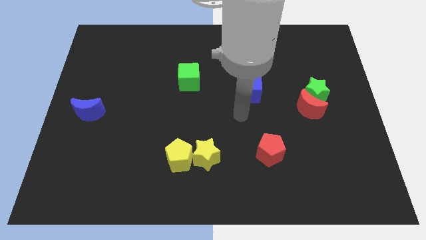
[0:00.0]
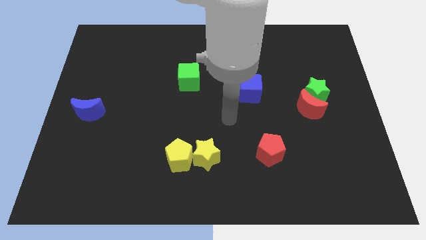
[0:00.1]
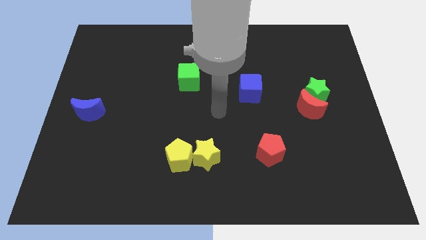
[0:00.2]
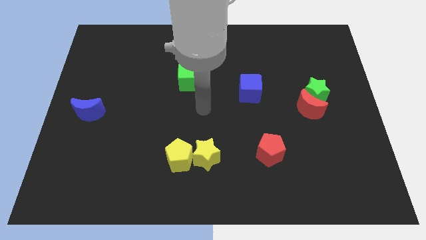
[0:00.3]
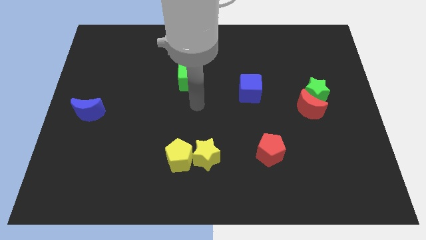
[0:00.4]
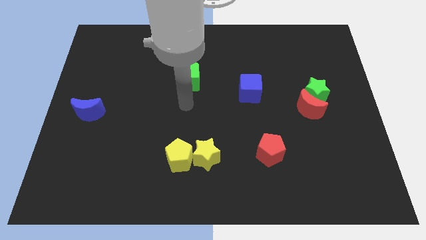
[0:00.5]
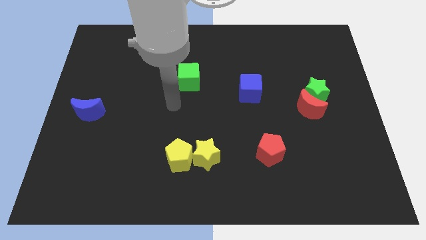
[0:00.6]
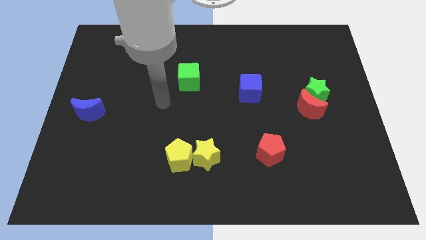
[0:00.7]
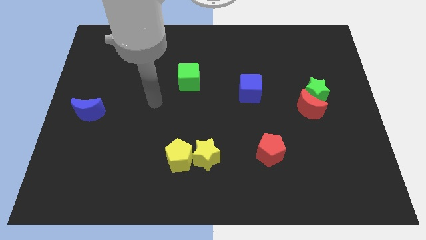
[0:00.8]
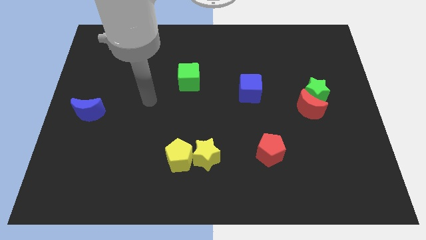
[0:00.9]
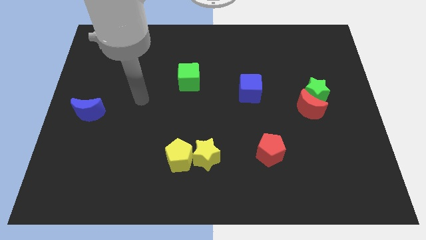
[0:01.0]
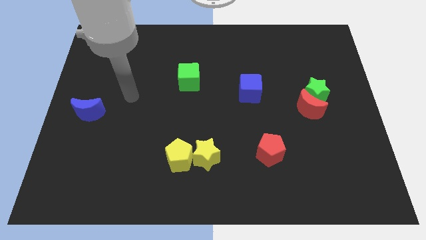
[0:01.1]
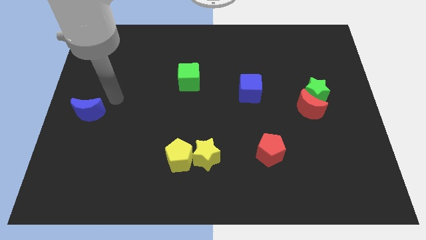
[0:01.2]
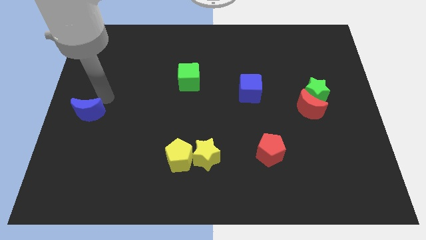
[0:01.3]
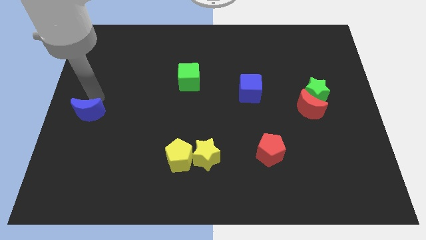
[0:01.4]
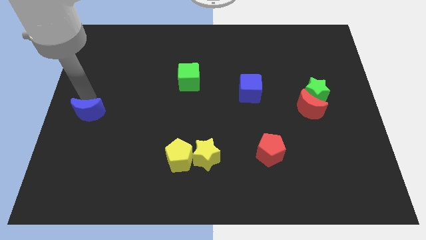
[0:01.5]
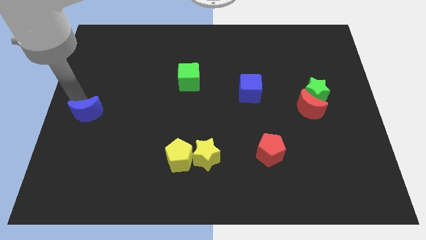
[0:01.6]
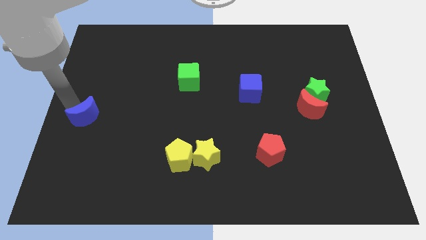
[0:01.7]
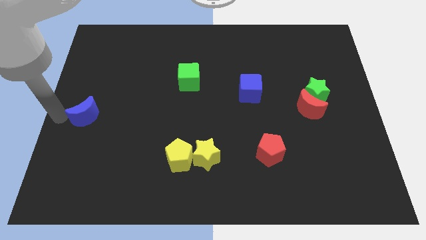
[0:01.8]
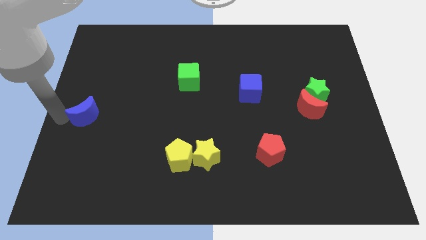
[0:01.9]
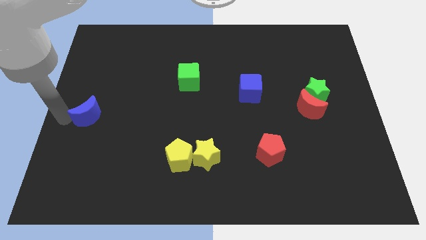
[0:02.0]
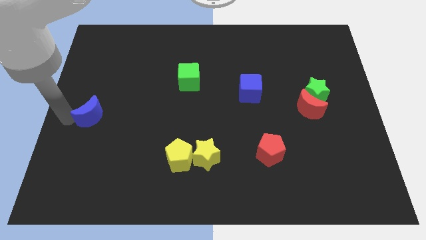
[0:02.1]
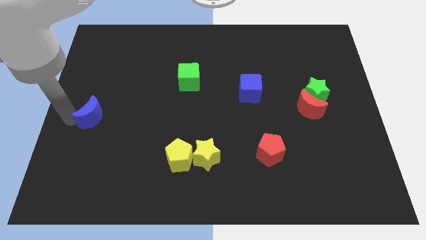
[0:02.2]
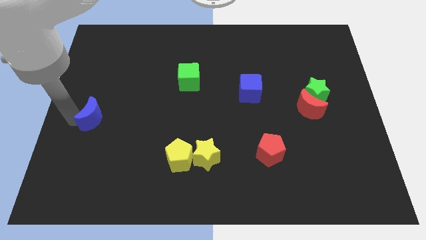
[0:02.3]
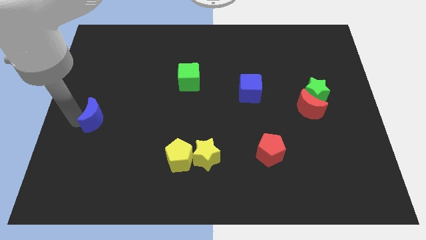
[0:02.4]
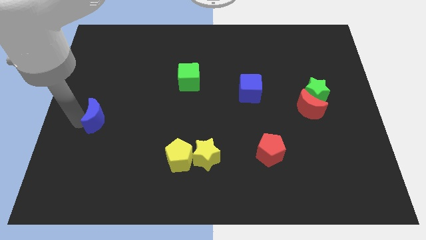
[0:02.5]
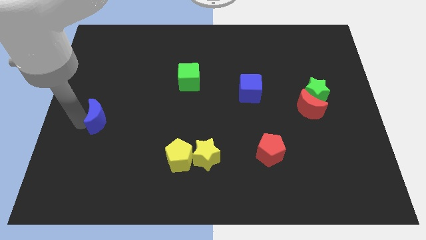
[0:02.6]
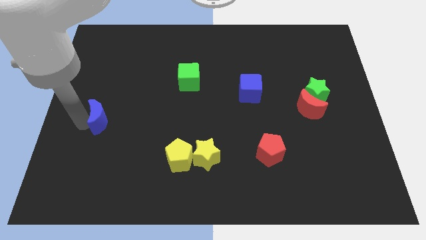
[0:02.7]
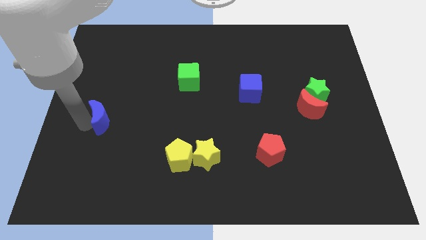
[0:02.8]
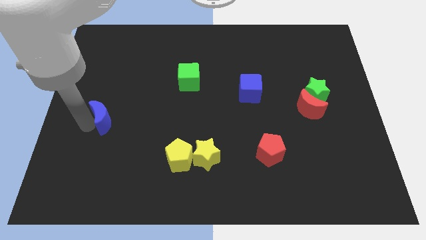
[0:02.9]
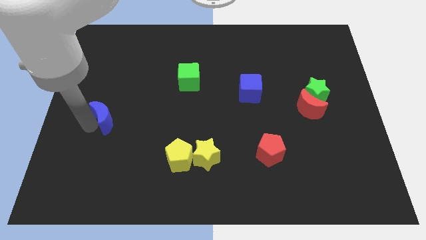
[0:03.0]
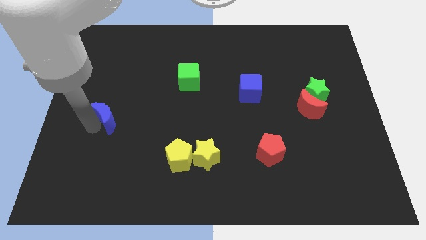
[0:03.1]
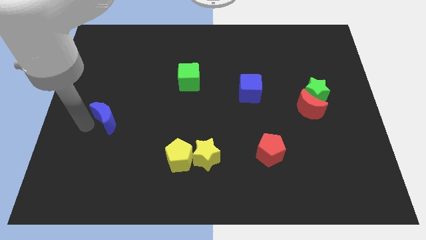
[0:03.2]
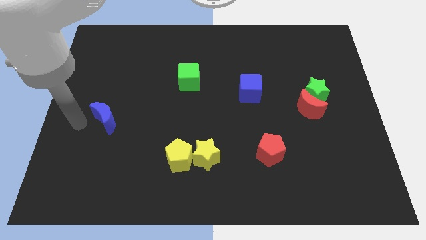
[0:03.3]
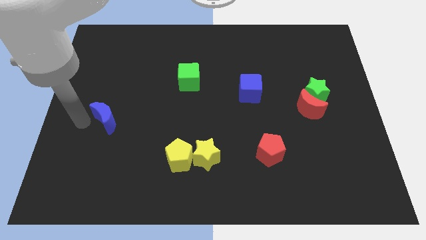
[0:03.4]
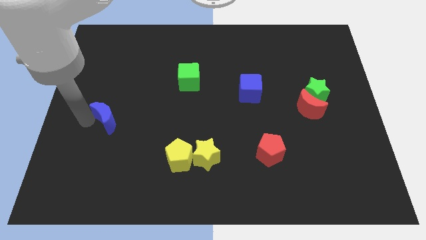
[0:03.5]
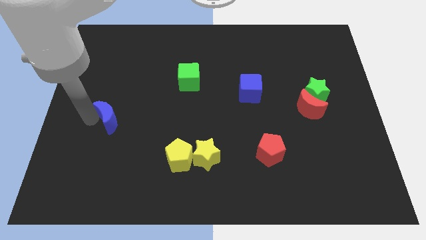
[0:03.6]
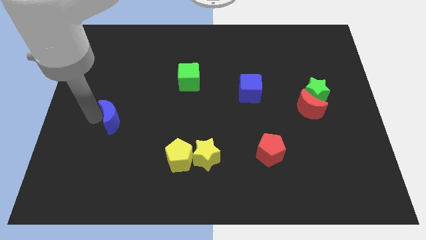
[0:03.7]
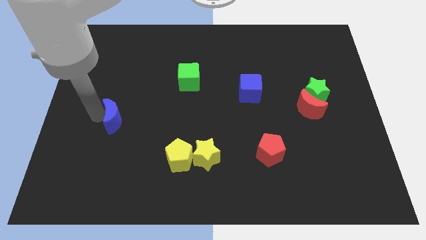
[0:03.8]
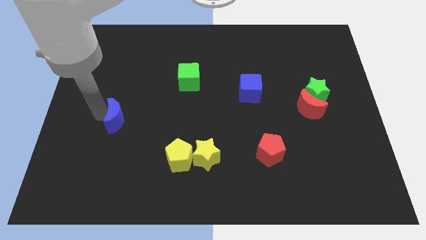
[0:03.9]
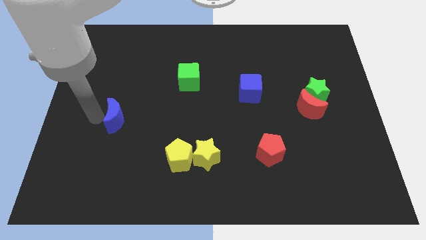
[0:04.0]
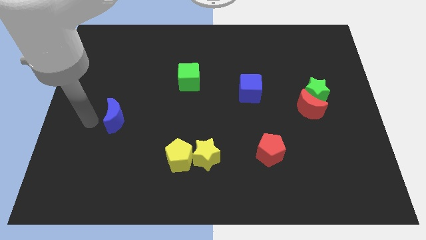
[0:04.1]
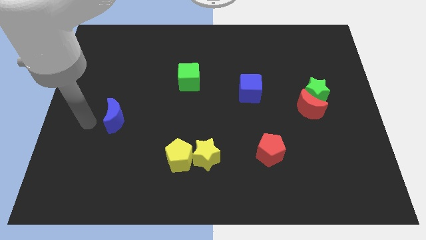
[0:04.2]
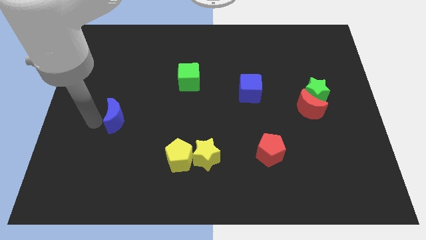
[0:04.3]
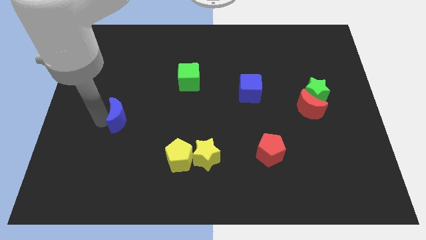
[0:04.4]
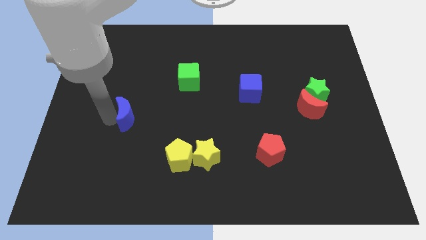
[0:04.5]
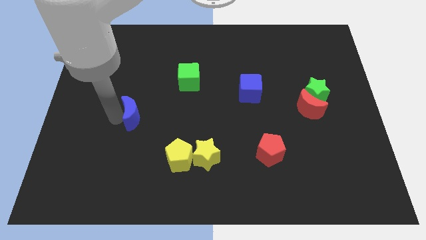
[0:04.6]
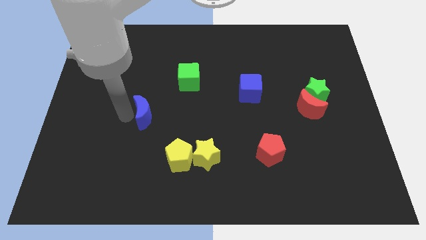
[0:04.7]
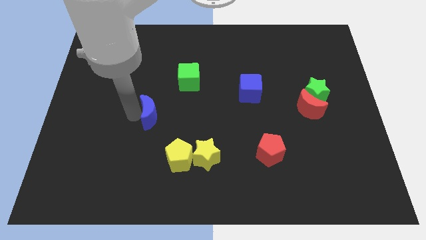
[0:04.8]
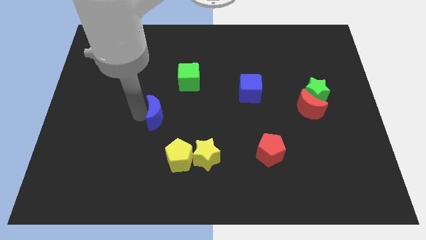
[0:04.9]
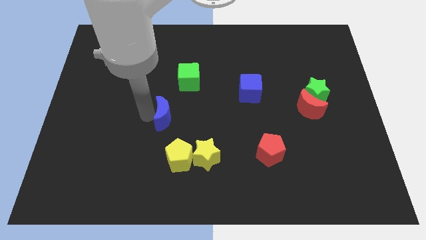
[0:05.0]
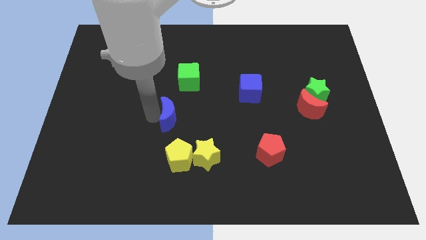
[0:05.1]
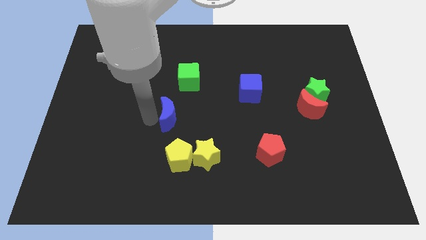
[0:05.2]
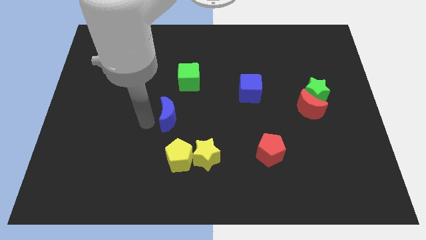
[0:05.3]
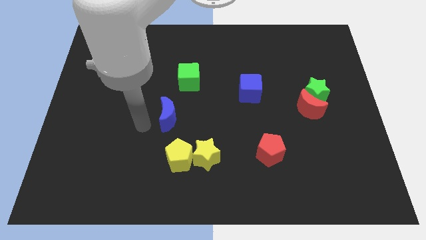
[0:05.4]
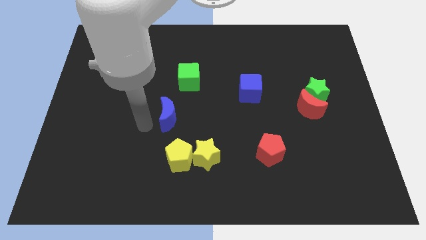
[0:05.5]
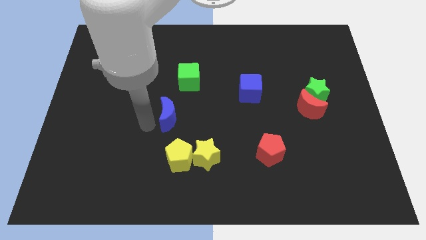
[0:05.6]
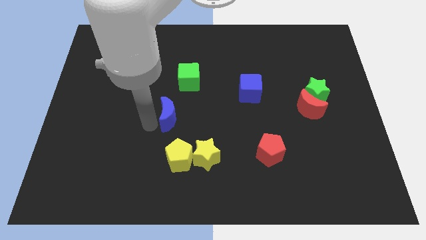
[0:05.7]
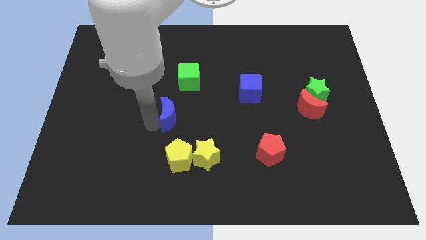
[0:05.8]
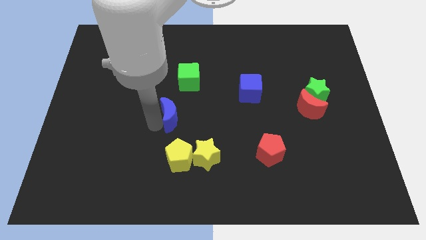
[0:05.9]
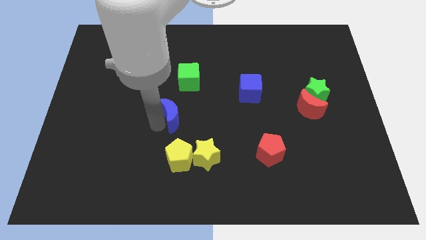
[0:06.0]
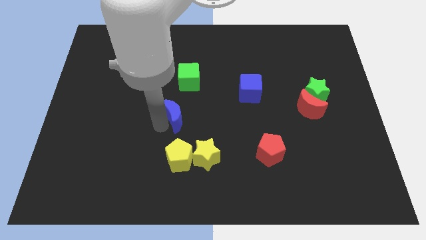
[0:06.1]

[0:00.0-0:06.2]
slide the blue moon to the right

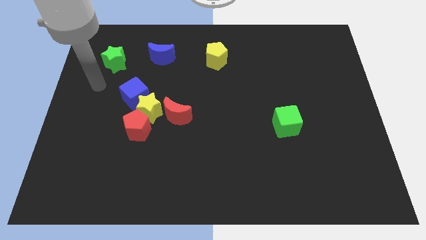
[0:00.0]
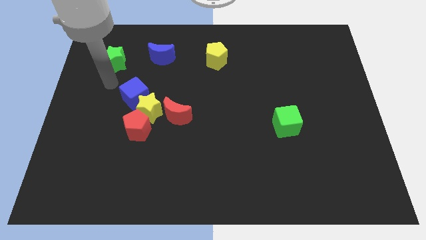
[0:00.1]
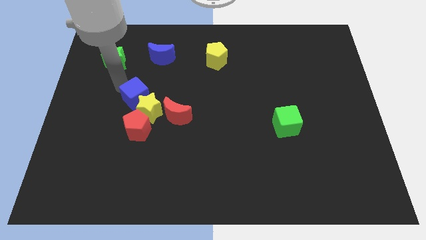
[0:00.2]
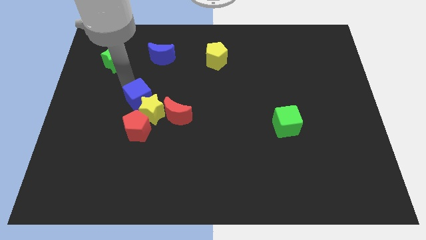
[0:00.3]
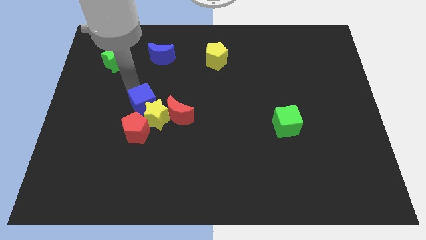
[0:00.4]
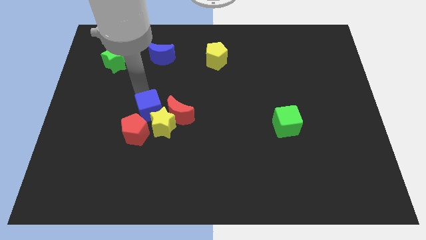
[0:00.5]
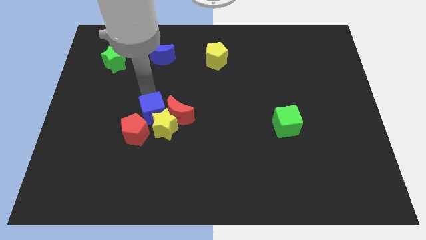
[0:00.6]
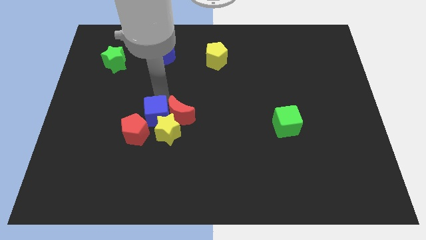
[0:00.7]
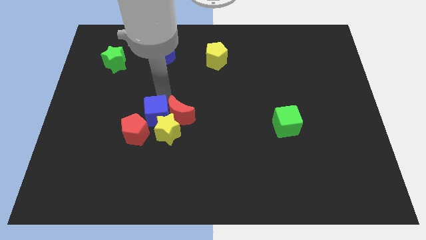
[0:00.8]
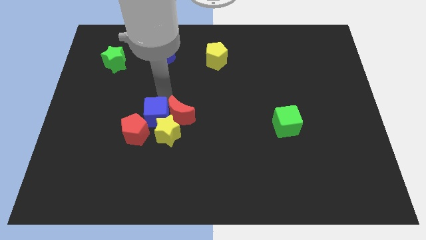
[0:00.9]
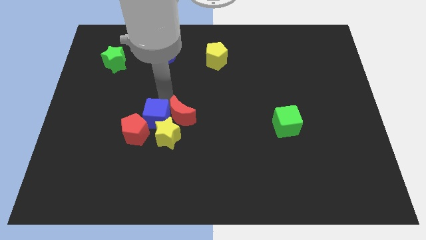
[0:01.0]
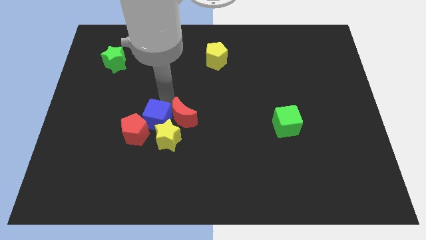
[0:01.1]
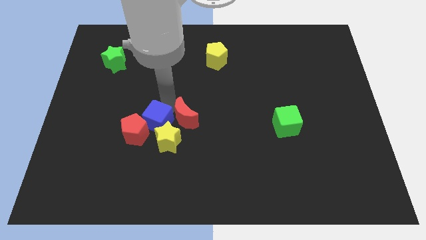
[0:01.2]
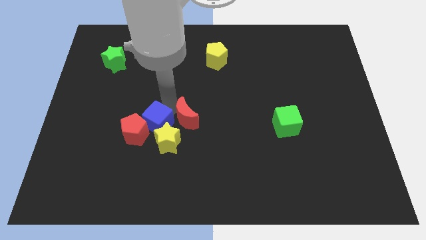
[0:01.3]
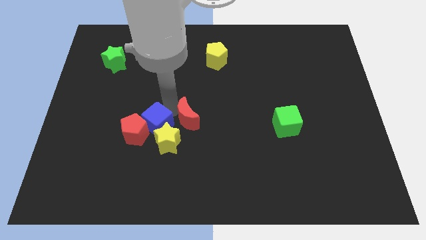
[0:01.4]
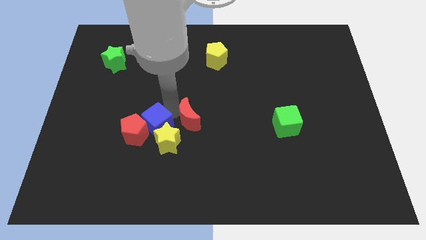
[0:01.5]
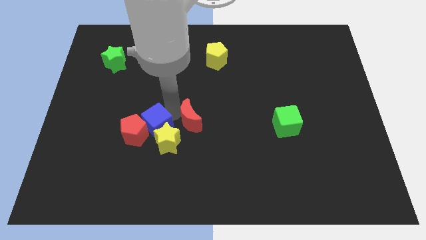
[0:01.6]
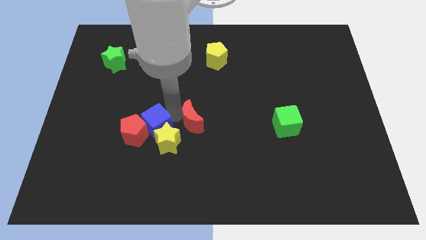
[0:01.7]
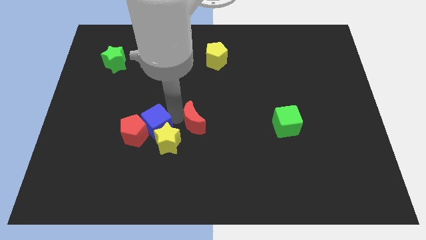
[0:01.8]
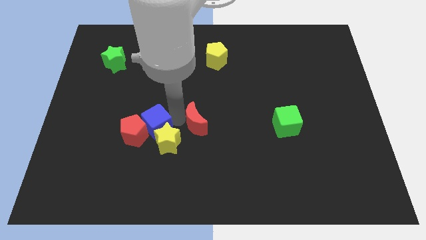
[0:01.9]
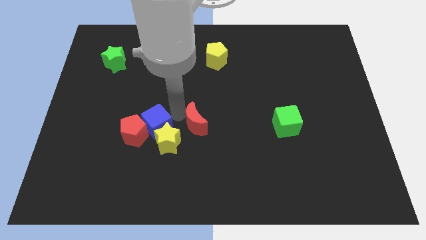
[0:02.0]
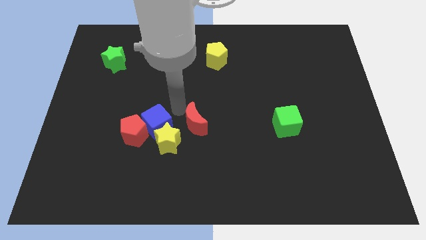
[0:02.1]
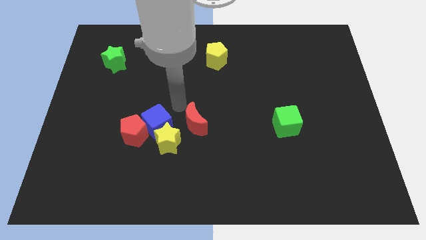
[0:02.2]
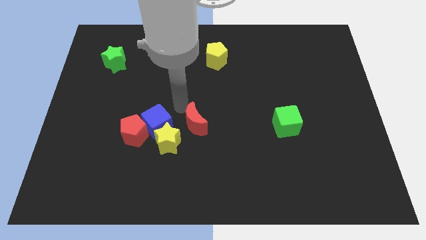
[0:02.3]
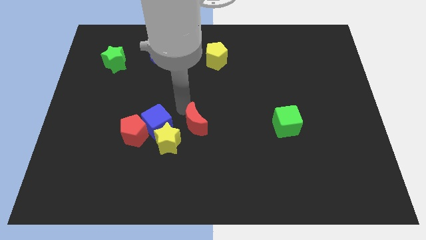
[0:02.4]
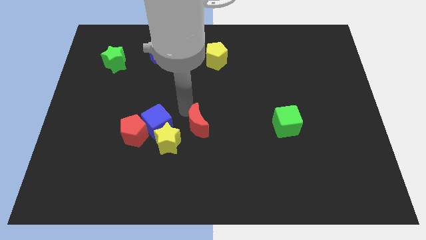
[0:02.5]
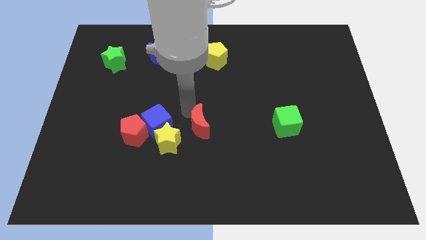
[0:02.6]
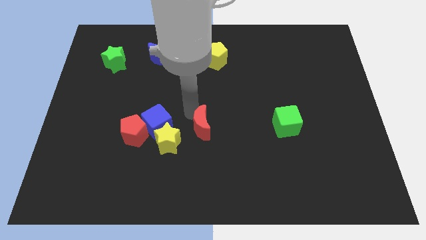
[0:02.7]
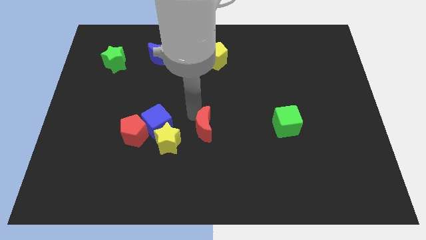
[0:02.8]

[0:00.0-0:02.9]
slide the red moon somewhat down and right diagonally
